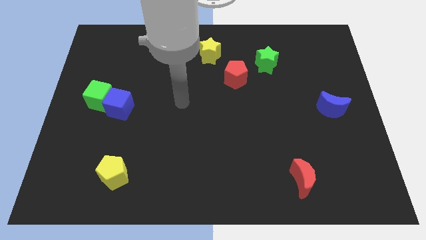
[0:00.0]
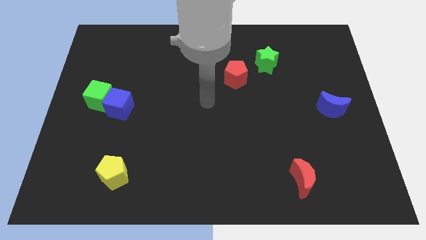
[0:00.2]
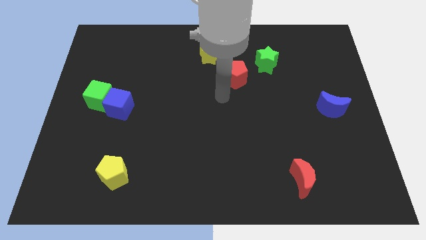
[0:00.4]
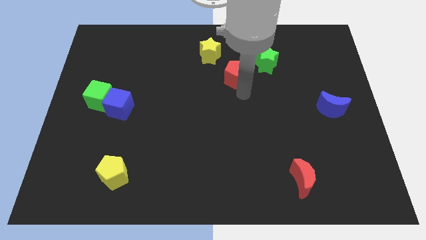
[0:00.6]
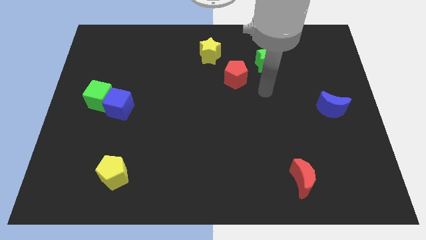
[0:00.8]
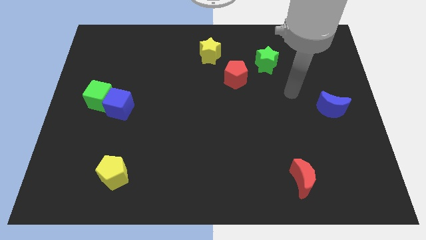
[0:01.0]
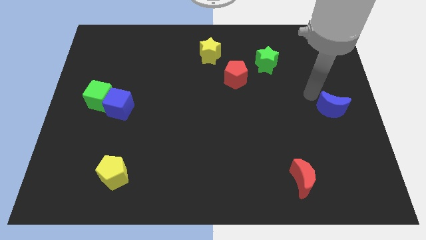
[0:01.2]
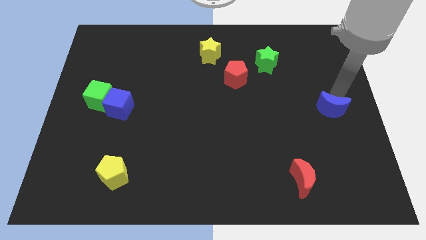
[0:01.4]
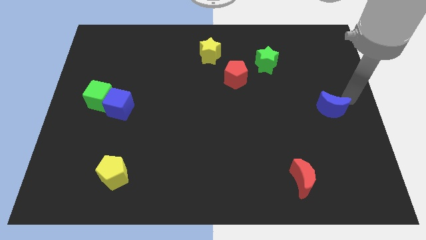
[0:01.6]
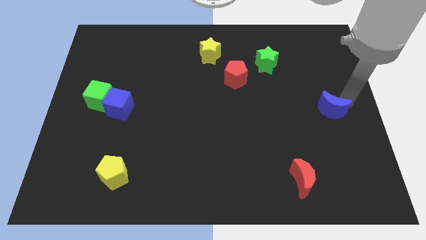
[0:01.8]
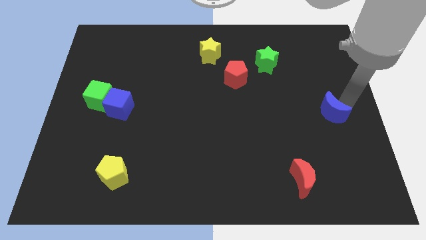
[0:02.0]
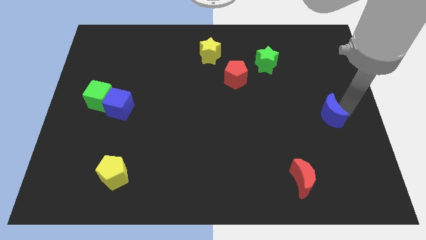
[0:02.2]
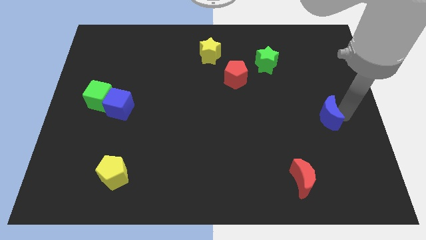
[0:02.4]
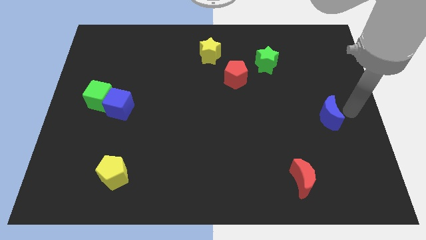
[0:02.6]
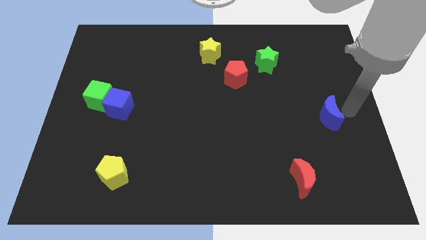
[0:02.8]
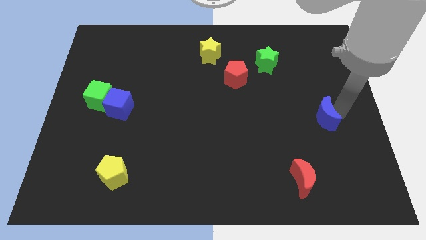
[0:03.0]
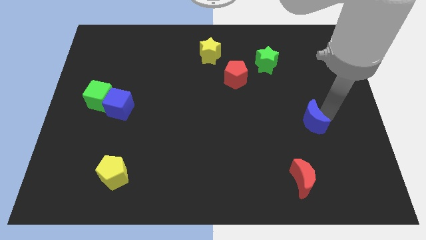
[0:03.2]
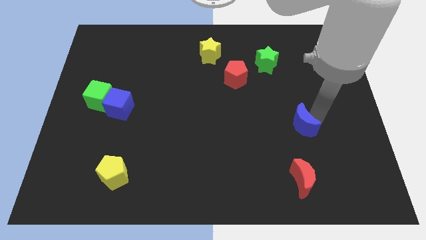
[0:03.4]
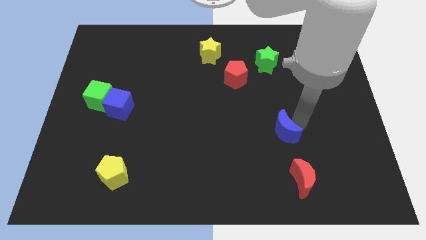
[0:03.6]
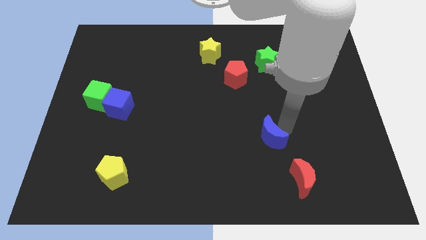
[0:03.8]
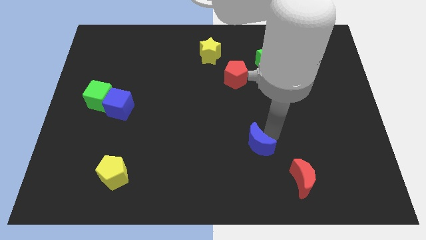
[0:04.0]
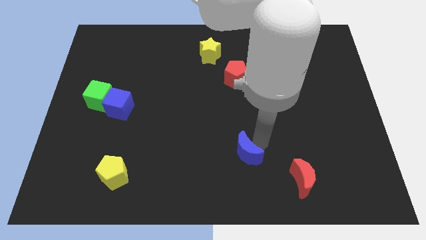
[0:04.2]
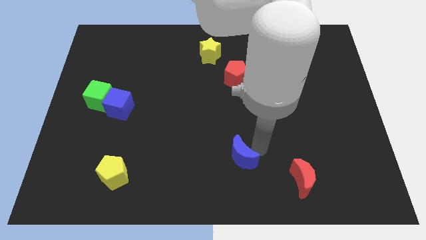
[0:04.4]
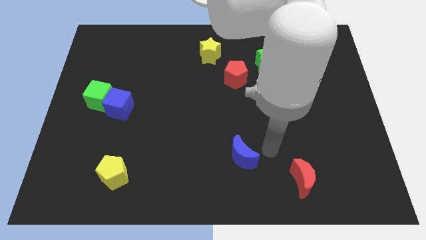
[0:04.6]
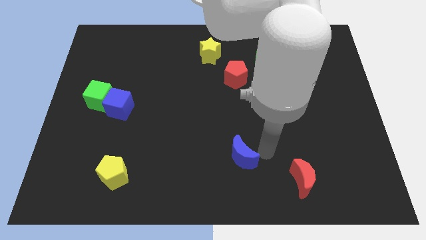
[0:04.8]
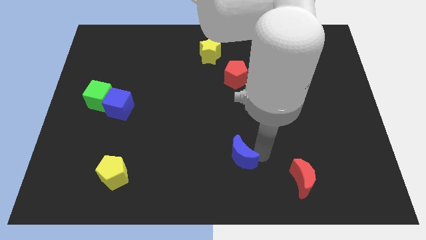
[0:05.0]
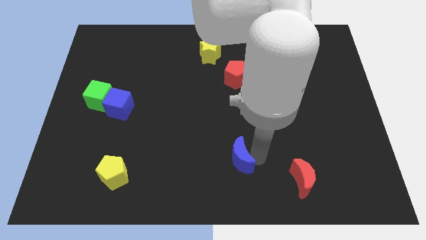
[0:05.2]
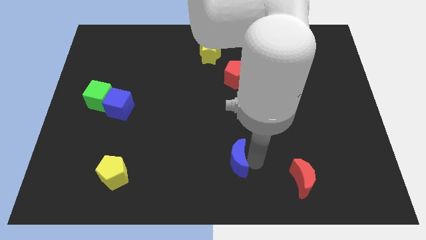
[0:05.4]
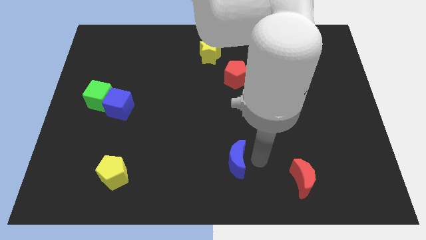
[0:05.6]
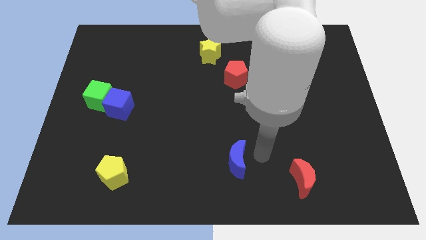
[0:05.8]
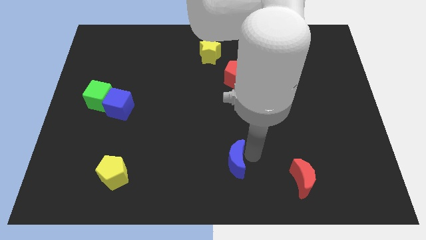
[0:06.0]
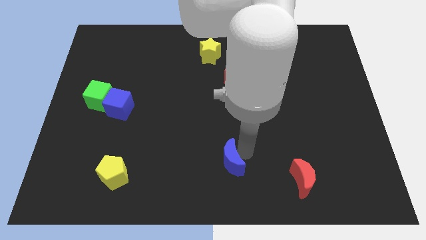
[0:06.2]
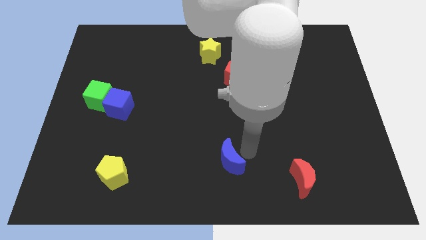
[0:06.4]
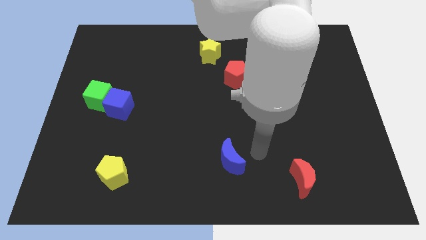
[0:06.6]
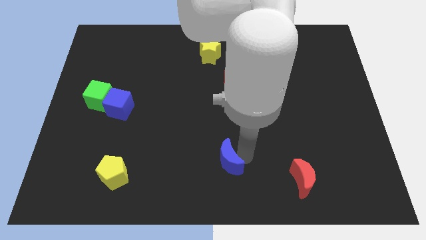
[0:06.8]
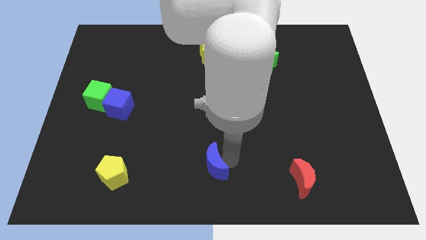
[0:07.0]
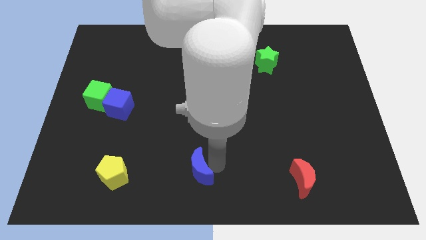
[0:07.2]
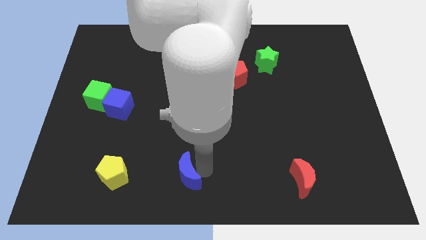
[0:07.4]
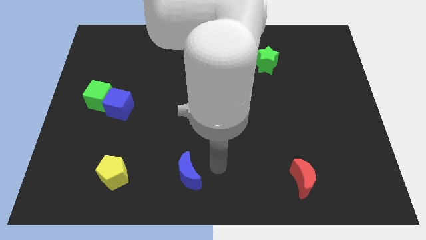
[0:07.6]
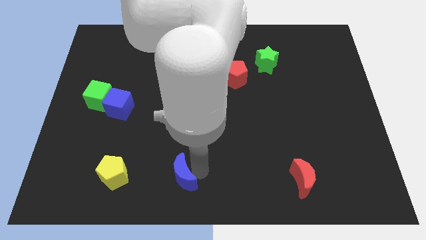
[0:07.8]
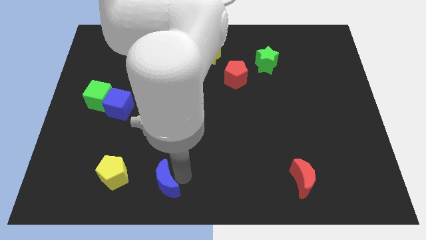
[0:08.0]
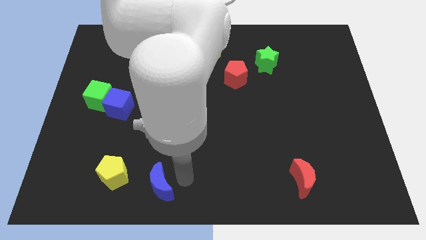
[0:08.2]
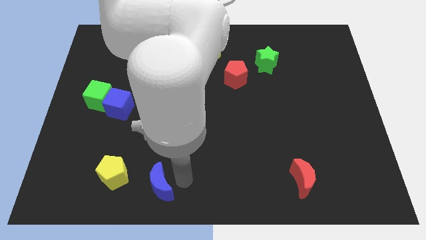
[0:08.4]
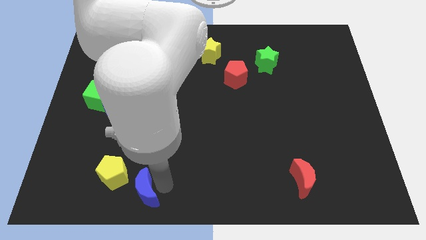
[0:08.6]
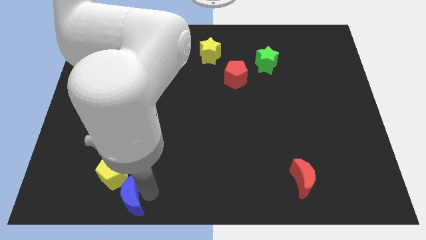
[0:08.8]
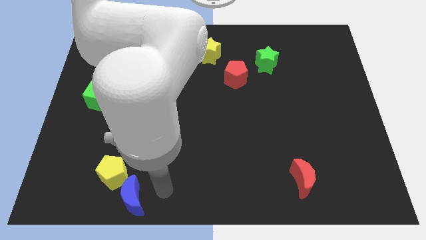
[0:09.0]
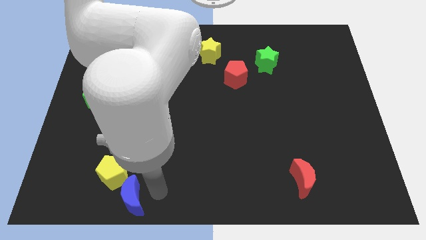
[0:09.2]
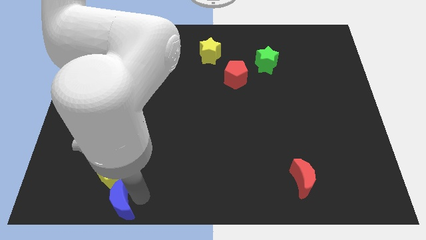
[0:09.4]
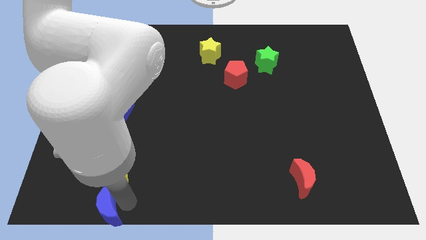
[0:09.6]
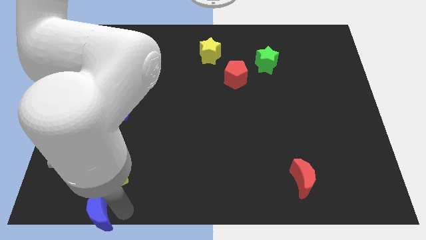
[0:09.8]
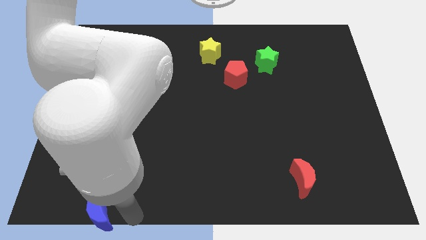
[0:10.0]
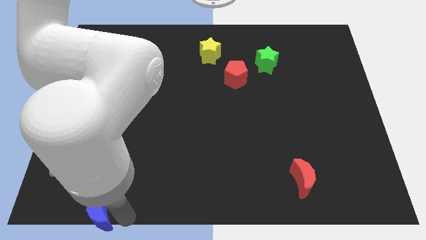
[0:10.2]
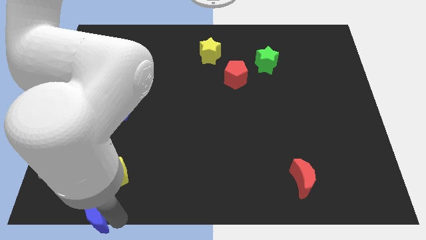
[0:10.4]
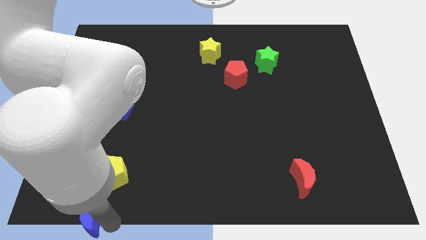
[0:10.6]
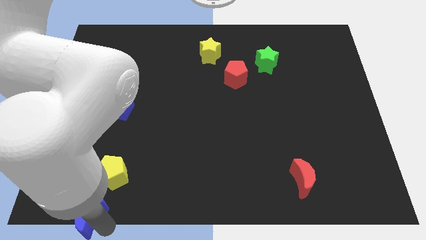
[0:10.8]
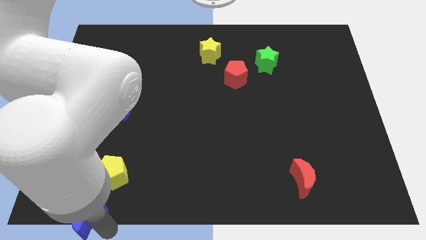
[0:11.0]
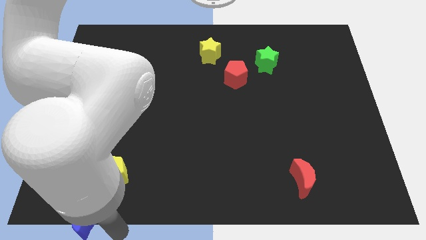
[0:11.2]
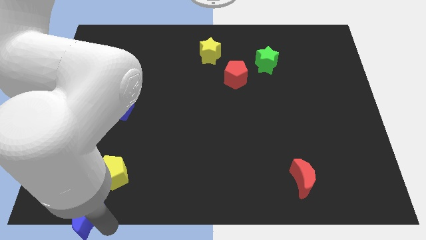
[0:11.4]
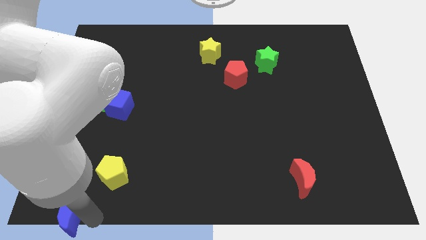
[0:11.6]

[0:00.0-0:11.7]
put the blue moon to the lower left corner
